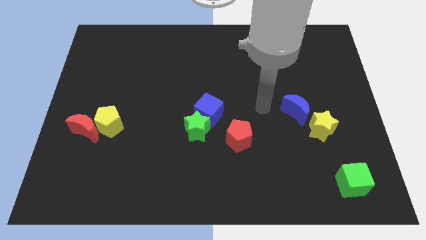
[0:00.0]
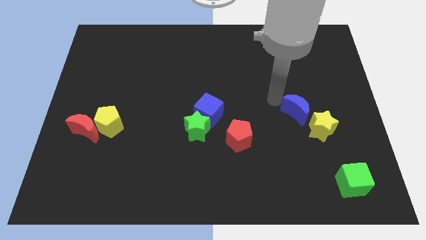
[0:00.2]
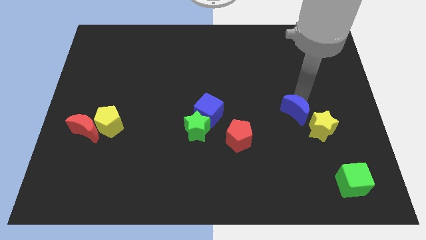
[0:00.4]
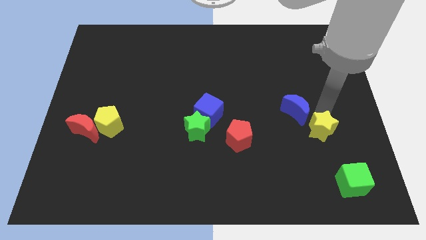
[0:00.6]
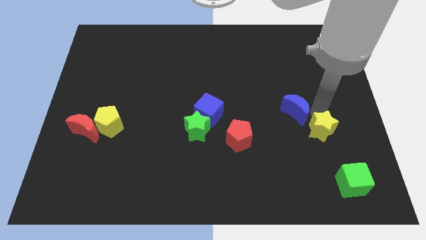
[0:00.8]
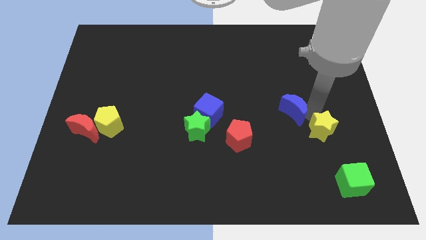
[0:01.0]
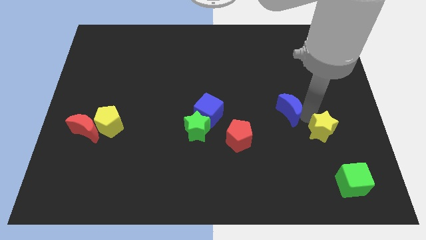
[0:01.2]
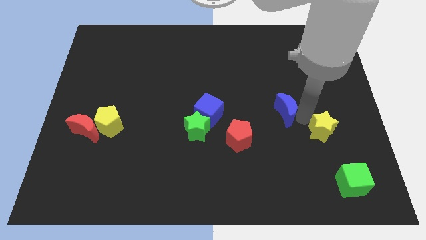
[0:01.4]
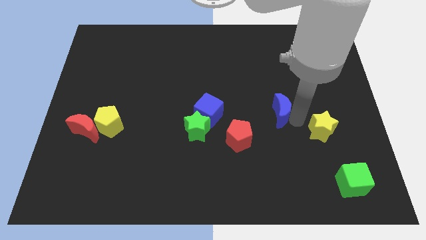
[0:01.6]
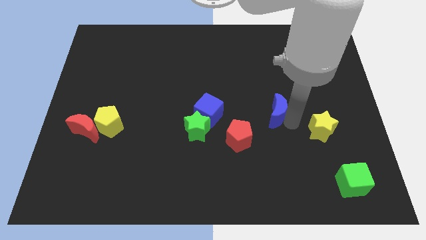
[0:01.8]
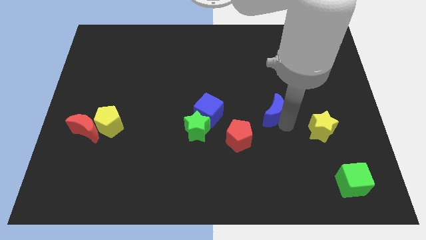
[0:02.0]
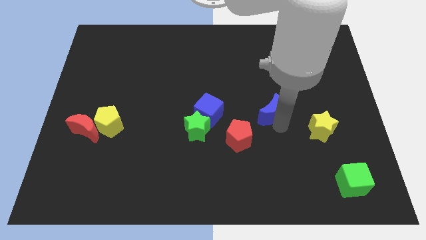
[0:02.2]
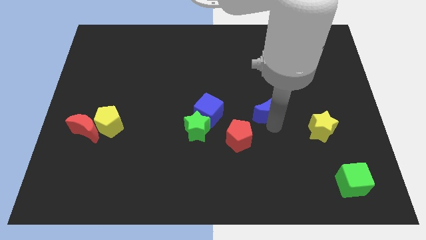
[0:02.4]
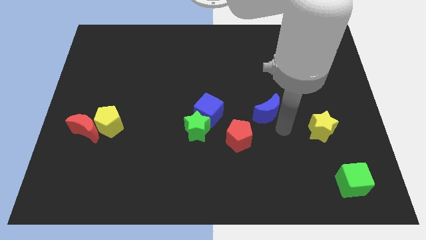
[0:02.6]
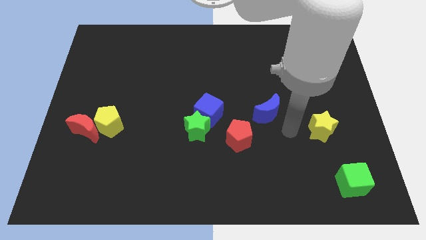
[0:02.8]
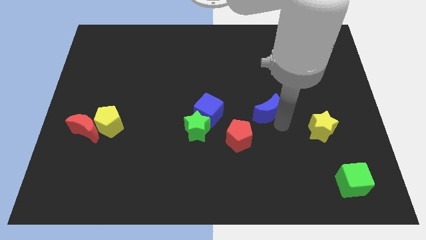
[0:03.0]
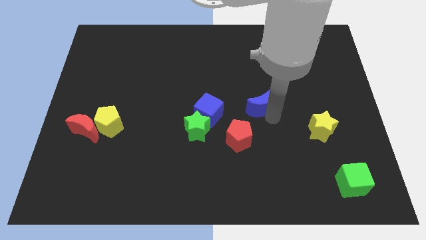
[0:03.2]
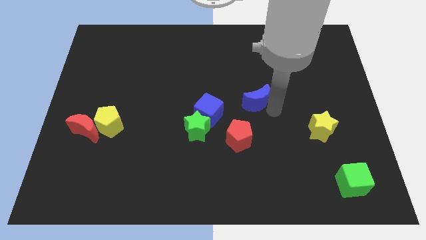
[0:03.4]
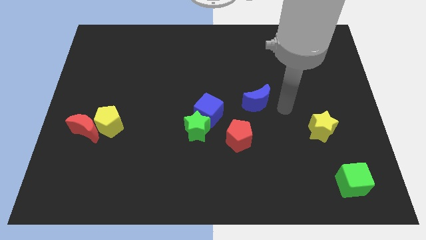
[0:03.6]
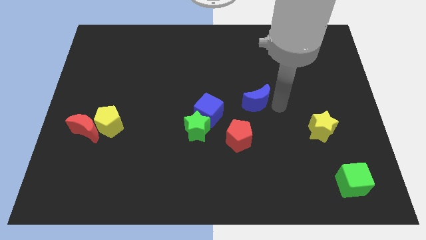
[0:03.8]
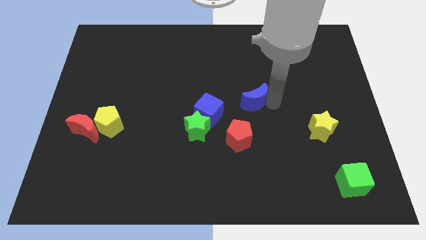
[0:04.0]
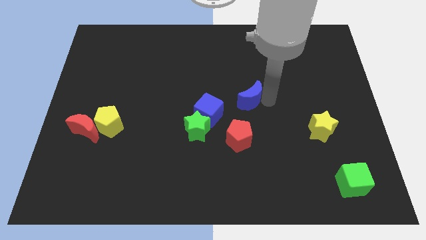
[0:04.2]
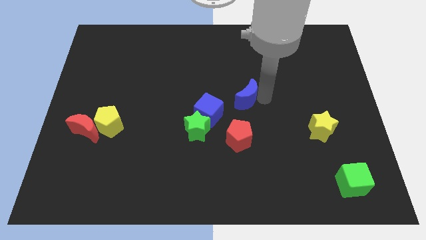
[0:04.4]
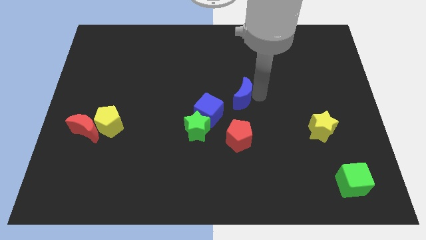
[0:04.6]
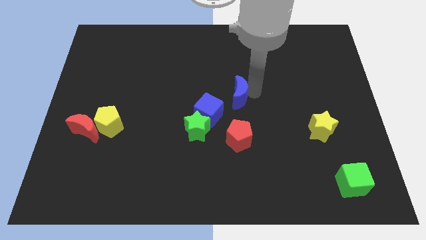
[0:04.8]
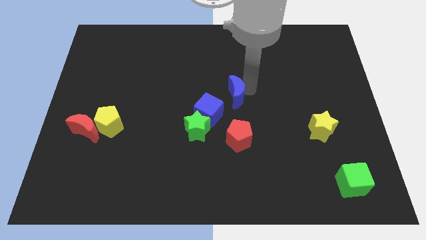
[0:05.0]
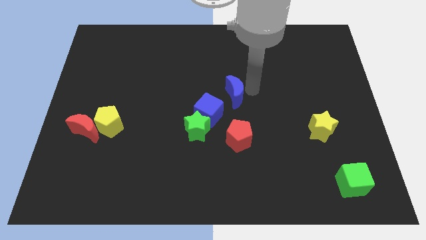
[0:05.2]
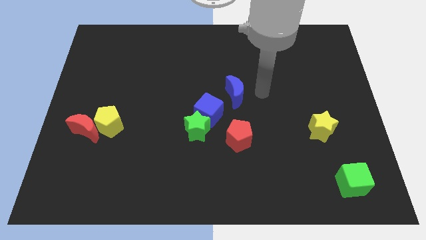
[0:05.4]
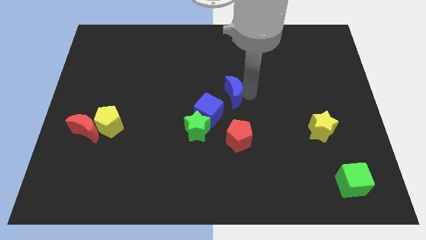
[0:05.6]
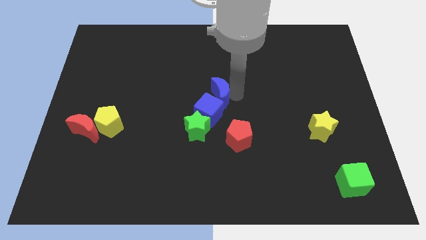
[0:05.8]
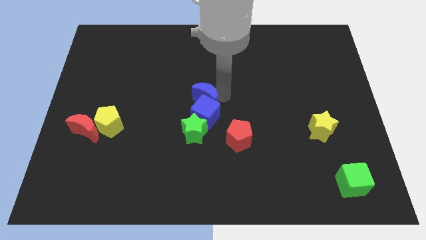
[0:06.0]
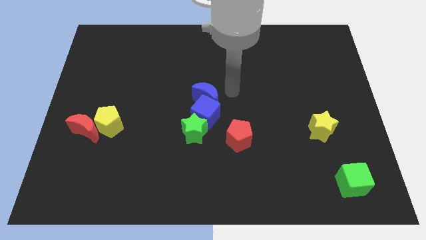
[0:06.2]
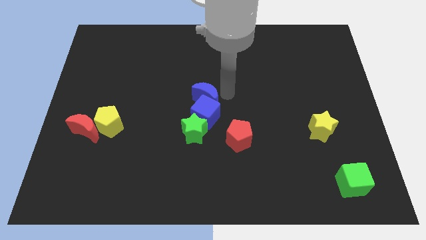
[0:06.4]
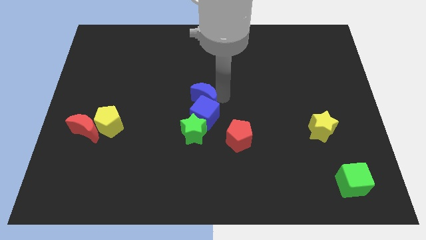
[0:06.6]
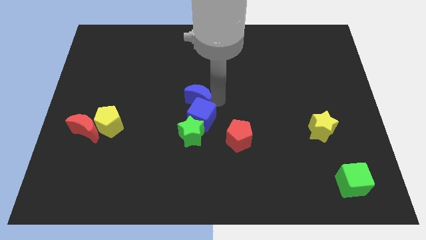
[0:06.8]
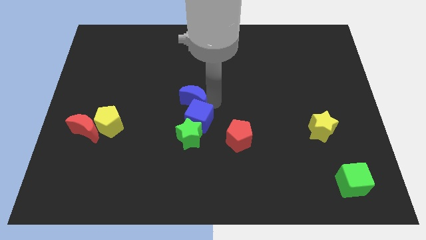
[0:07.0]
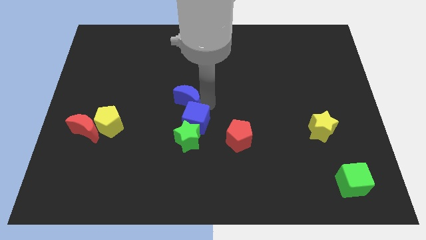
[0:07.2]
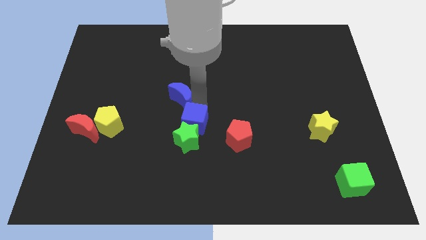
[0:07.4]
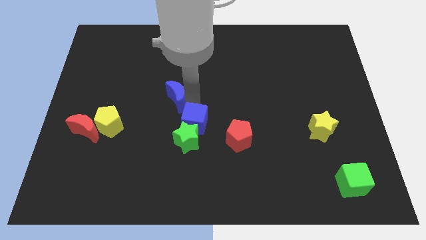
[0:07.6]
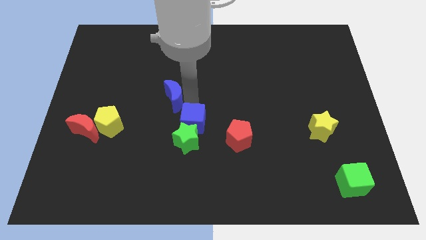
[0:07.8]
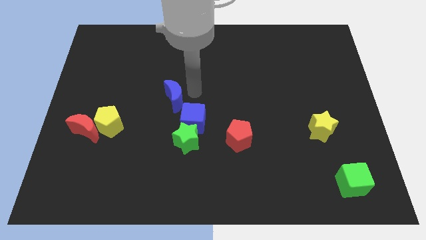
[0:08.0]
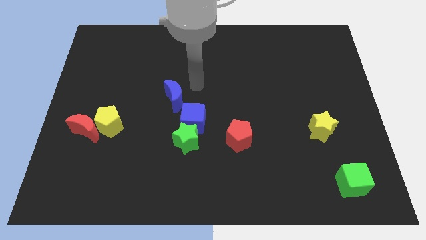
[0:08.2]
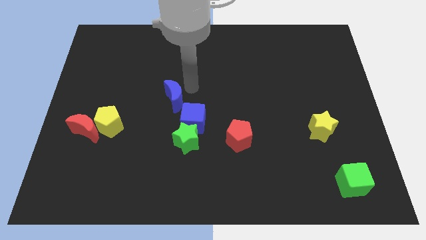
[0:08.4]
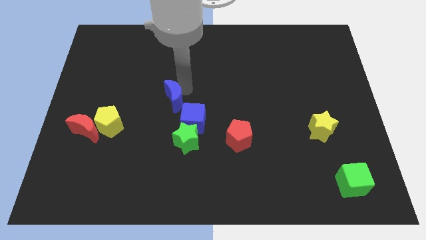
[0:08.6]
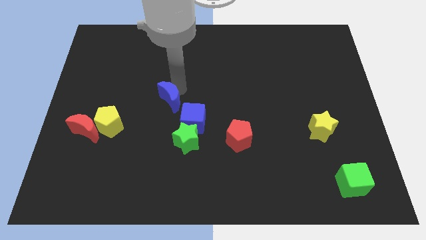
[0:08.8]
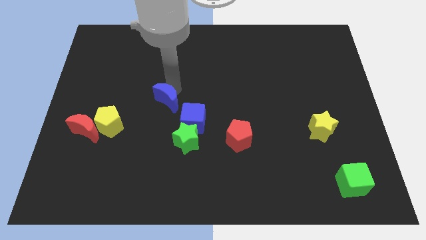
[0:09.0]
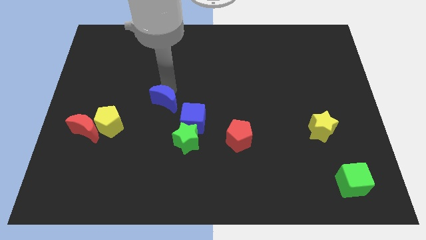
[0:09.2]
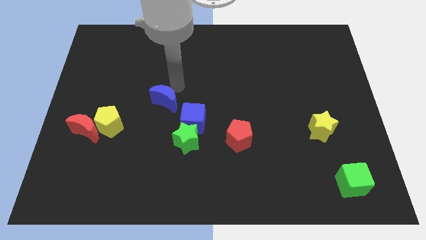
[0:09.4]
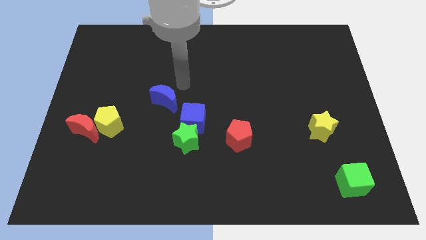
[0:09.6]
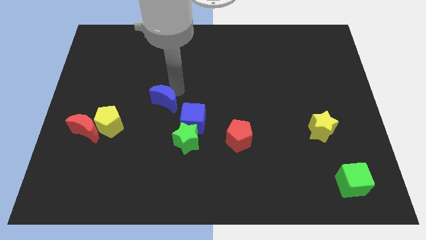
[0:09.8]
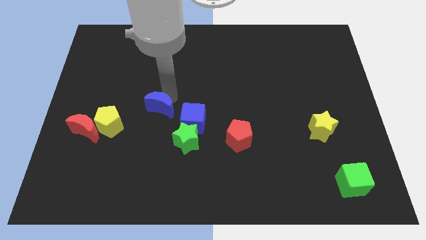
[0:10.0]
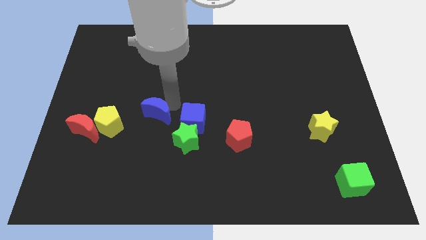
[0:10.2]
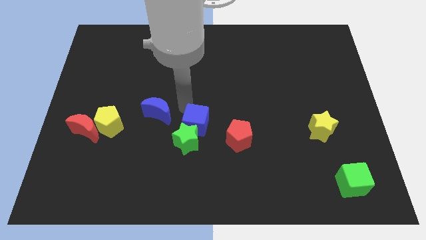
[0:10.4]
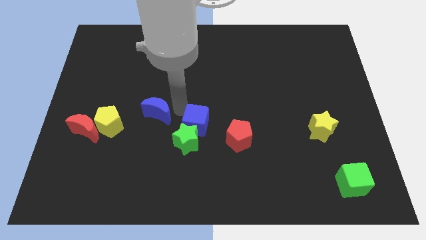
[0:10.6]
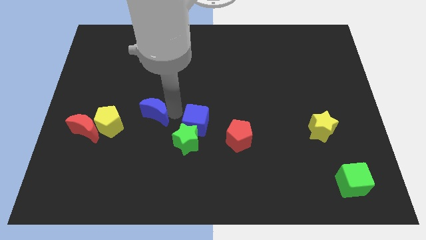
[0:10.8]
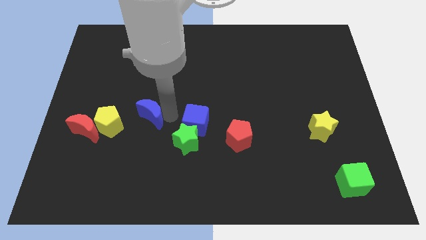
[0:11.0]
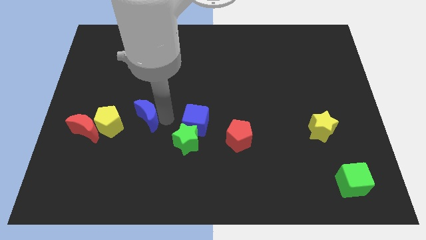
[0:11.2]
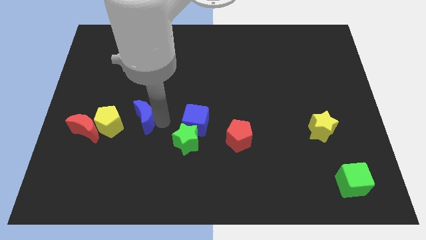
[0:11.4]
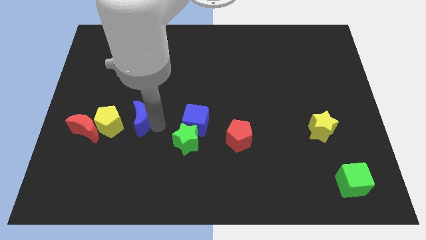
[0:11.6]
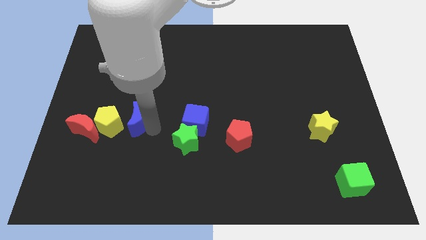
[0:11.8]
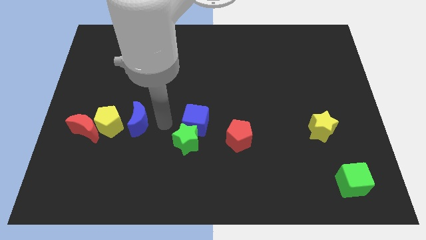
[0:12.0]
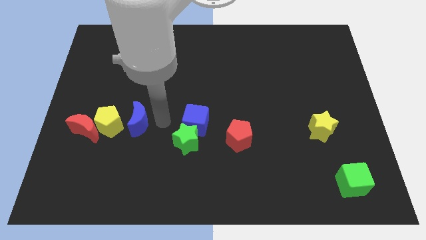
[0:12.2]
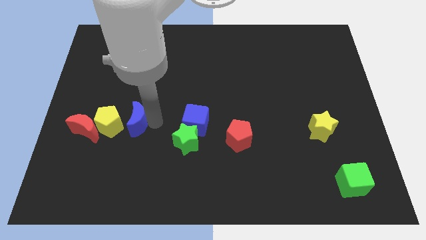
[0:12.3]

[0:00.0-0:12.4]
move the blue moon to the yellow pentagon
